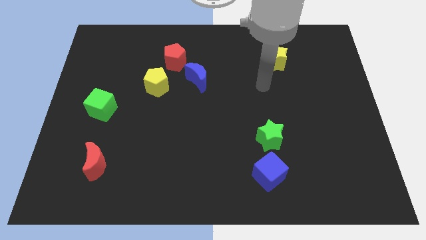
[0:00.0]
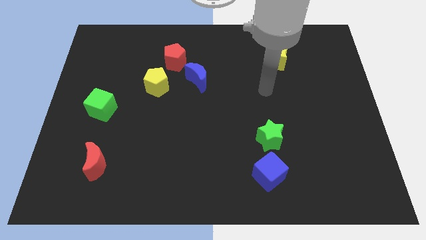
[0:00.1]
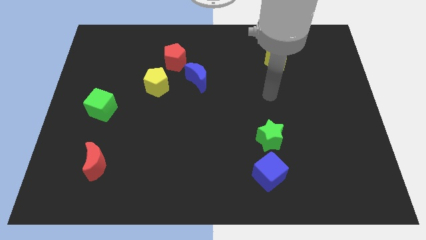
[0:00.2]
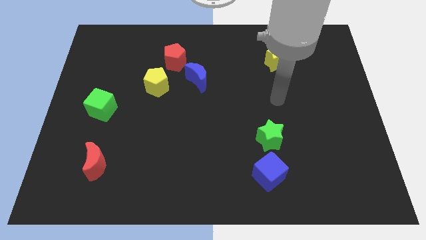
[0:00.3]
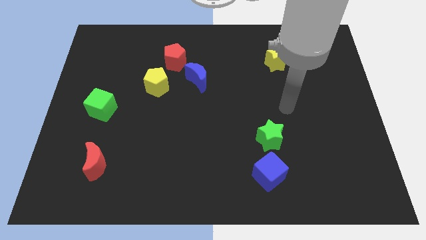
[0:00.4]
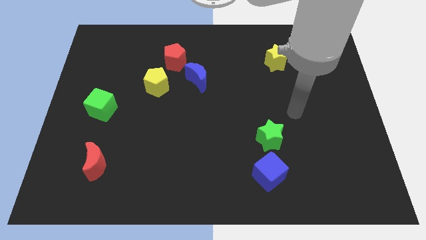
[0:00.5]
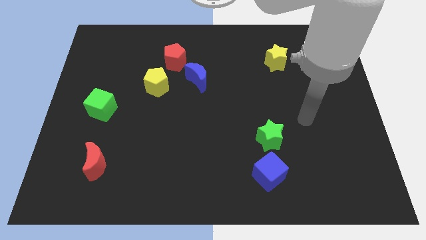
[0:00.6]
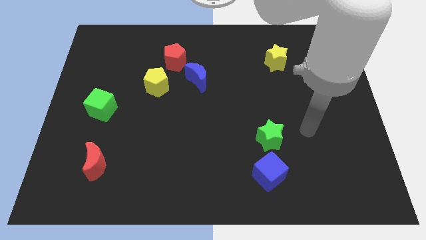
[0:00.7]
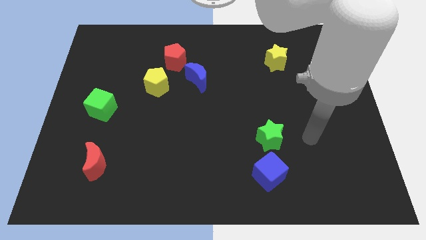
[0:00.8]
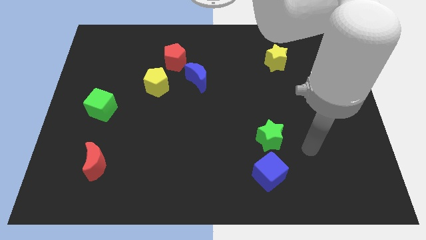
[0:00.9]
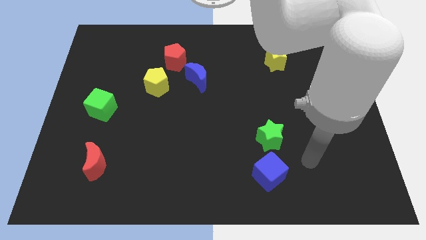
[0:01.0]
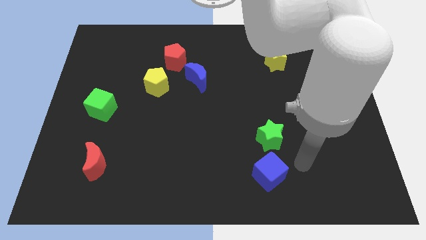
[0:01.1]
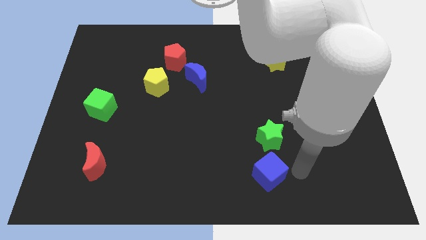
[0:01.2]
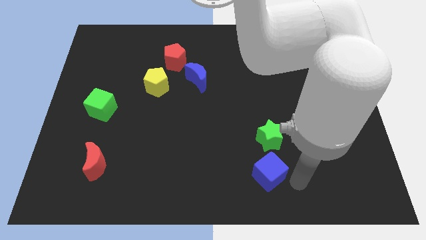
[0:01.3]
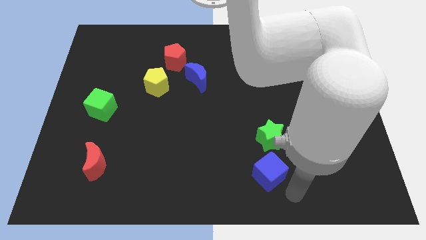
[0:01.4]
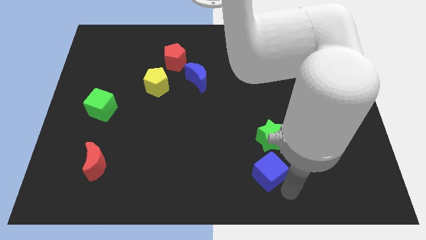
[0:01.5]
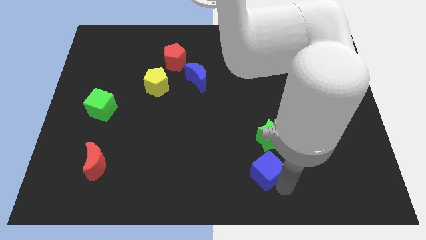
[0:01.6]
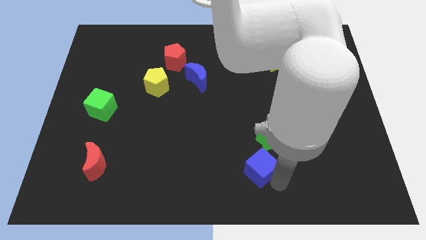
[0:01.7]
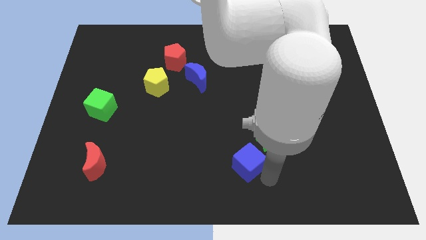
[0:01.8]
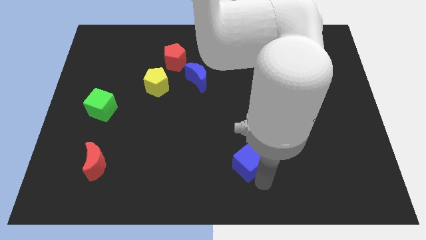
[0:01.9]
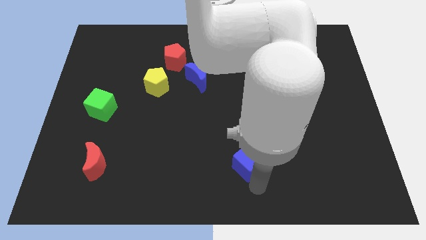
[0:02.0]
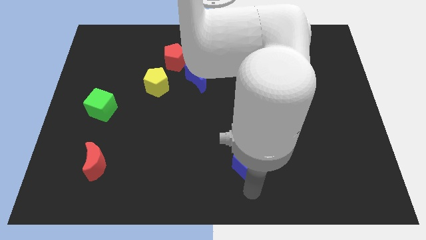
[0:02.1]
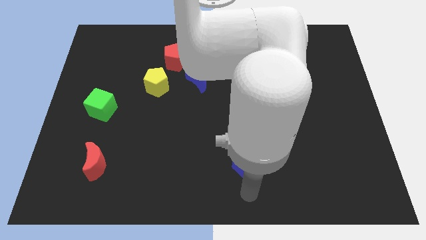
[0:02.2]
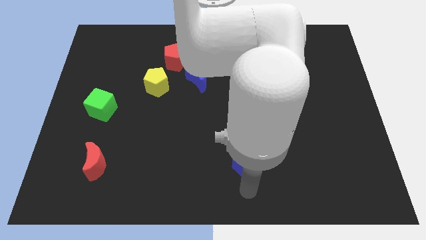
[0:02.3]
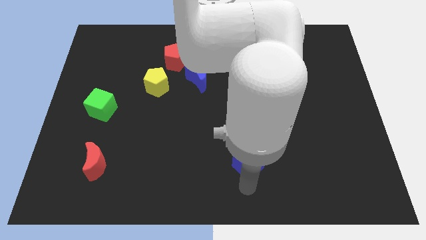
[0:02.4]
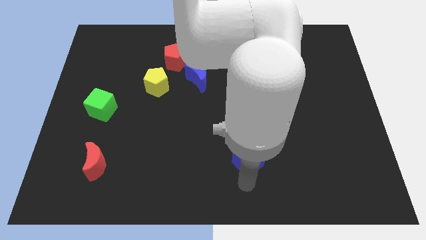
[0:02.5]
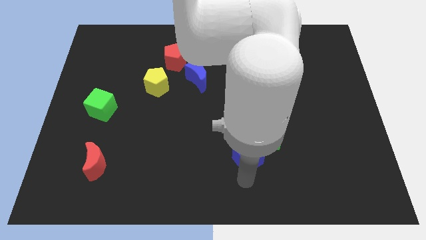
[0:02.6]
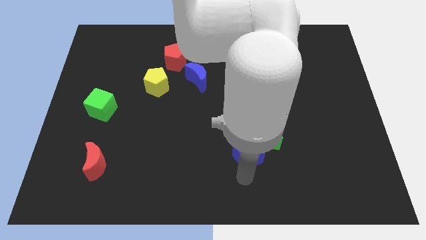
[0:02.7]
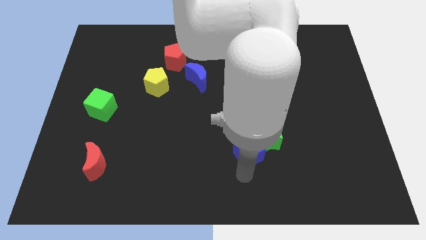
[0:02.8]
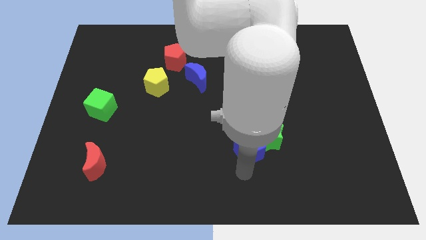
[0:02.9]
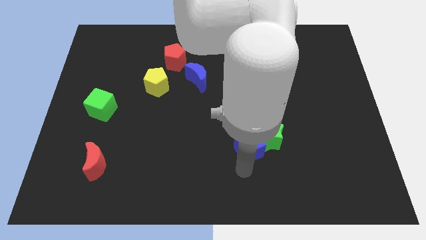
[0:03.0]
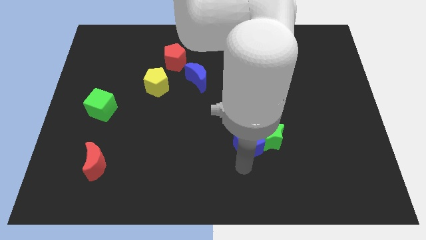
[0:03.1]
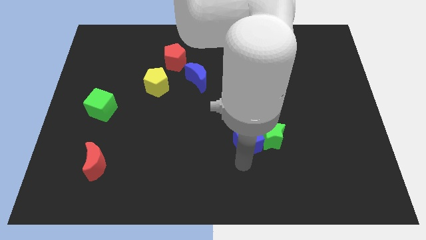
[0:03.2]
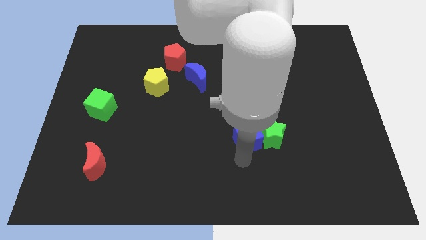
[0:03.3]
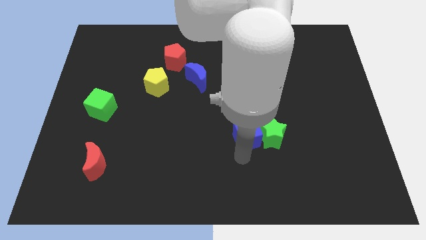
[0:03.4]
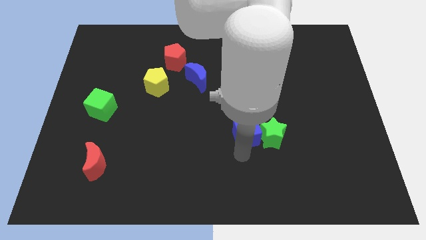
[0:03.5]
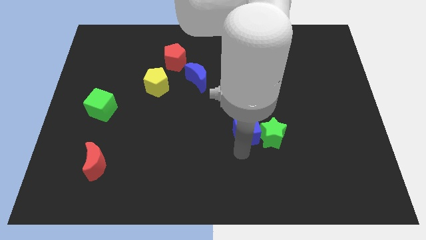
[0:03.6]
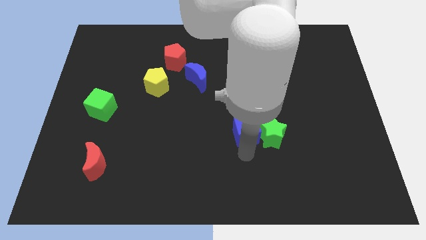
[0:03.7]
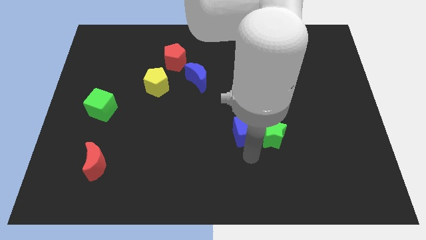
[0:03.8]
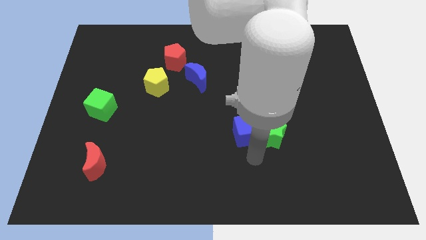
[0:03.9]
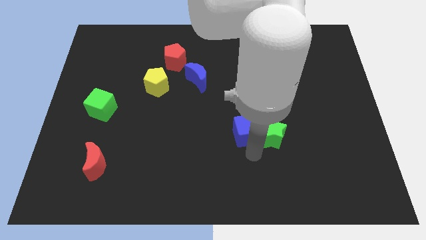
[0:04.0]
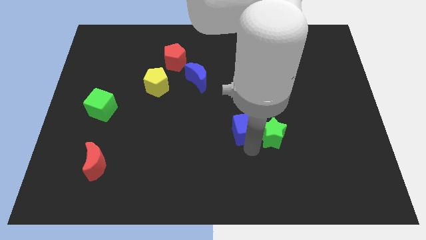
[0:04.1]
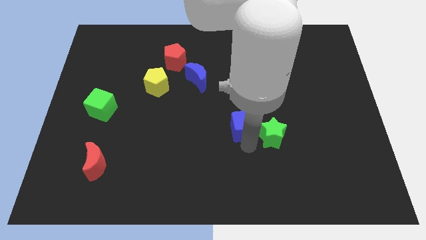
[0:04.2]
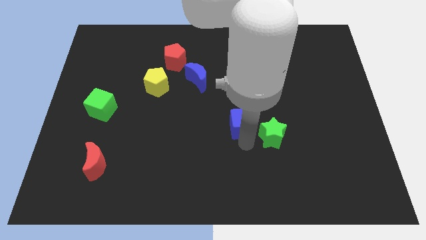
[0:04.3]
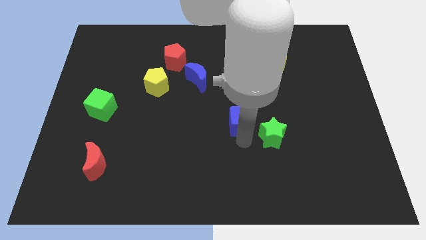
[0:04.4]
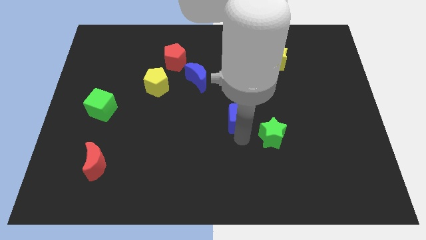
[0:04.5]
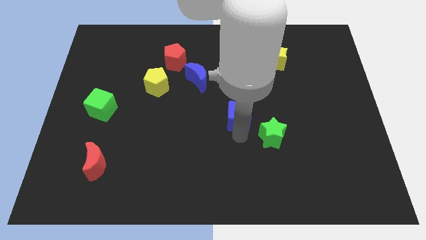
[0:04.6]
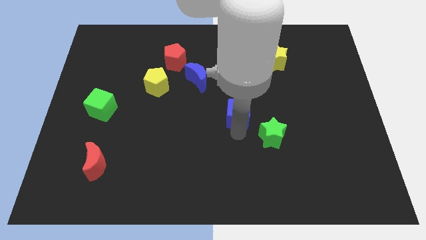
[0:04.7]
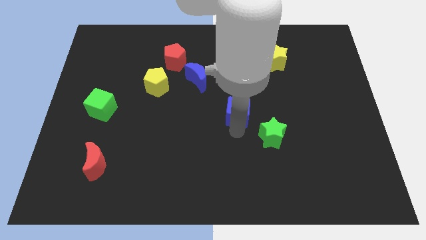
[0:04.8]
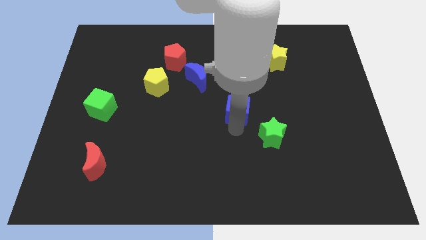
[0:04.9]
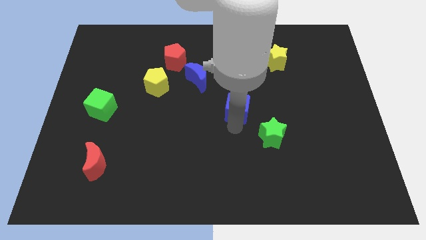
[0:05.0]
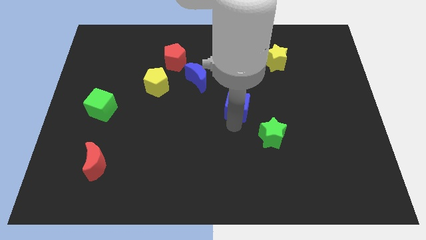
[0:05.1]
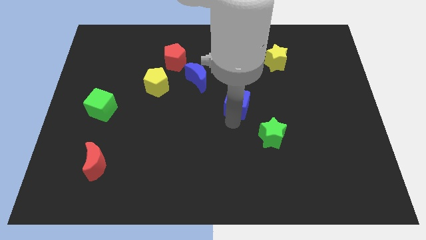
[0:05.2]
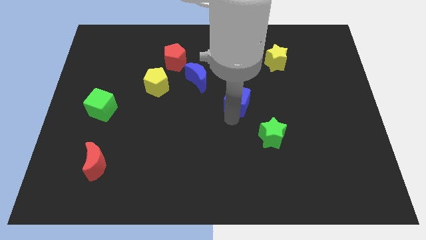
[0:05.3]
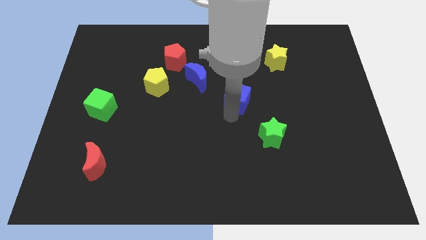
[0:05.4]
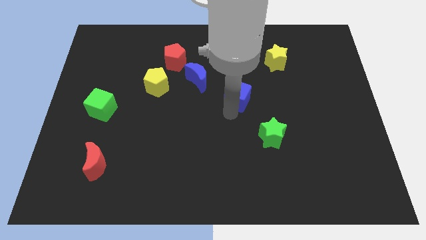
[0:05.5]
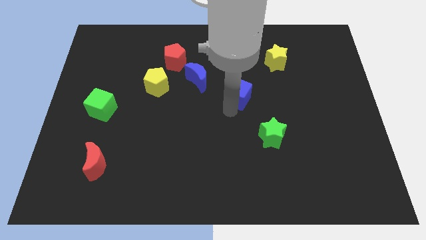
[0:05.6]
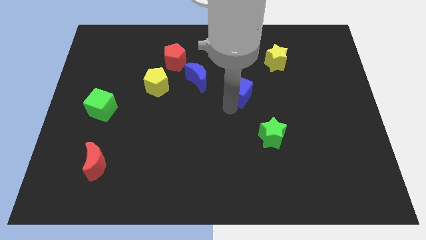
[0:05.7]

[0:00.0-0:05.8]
move the blue cube up

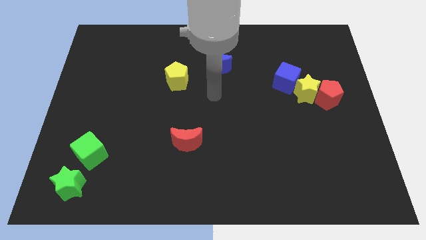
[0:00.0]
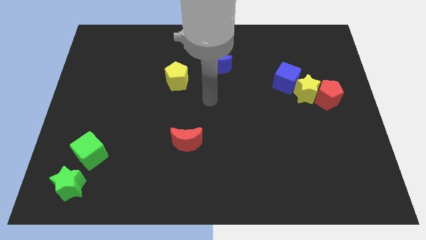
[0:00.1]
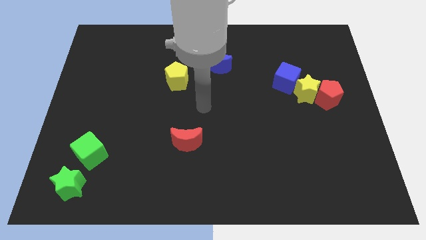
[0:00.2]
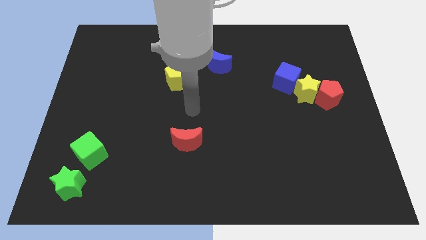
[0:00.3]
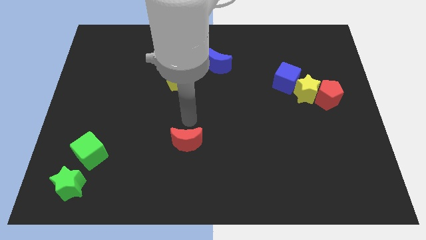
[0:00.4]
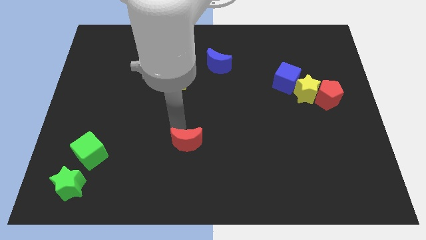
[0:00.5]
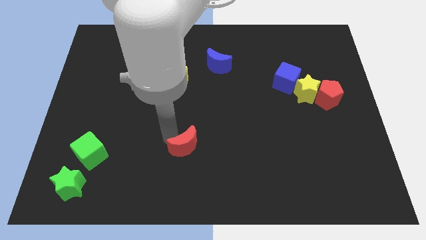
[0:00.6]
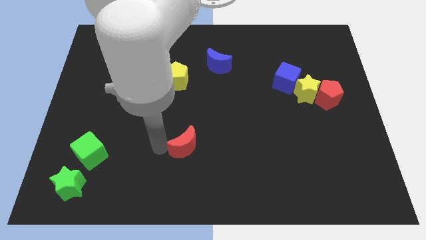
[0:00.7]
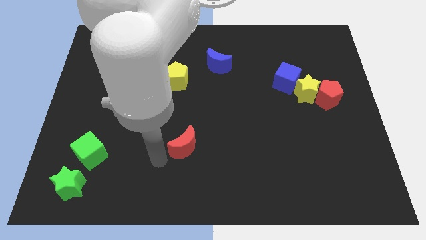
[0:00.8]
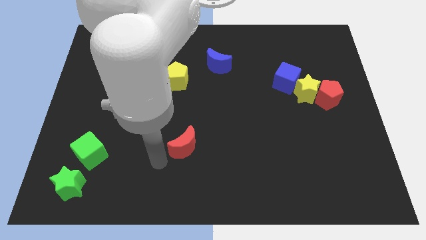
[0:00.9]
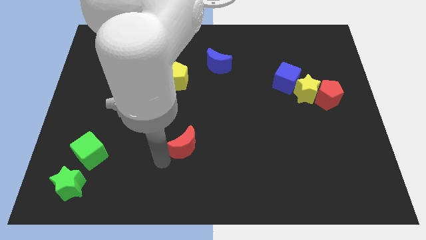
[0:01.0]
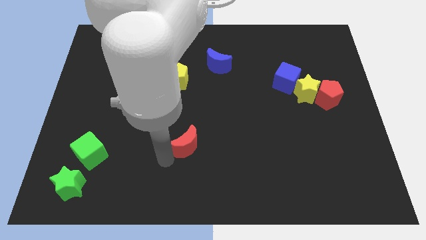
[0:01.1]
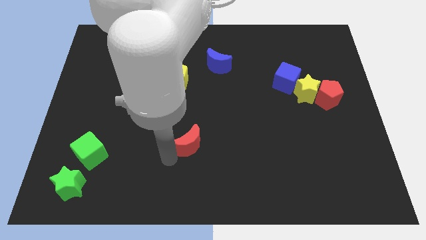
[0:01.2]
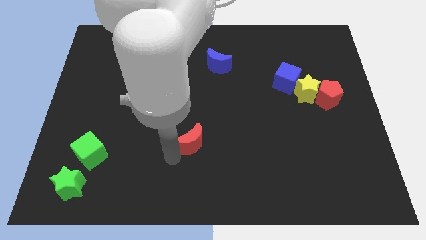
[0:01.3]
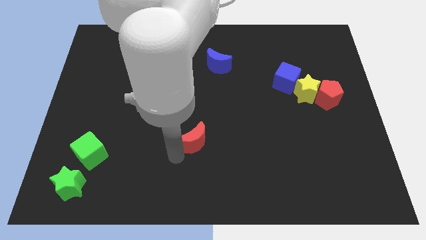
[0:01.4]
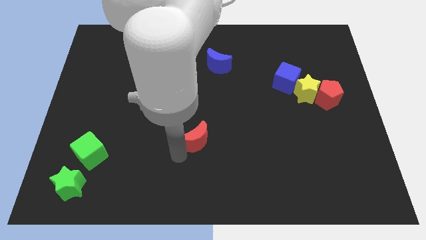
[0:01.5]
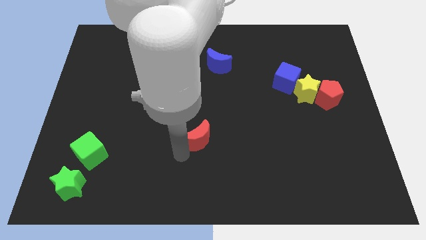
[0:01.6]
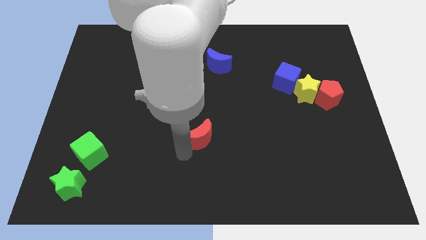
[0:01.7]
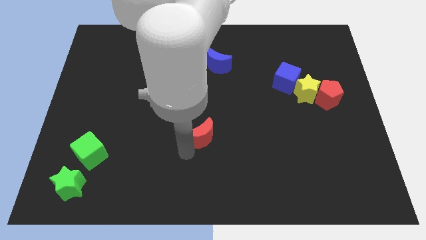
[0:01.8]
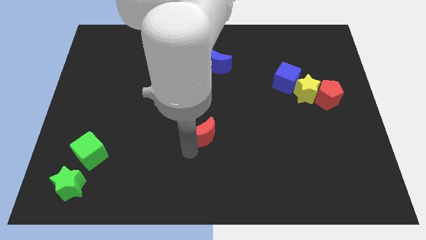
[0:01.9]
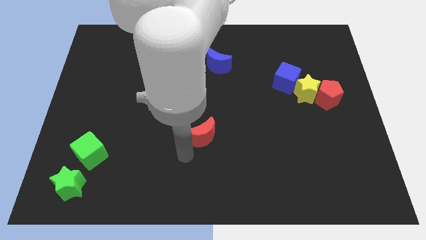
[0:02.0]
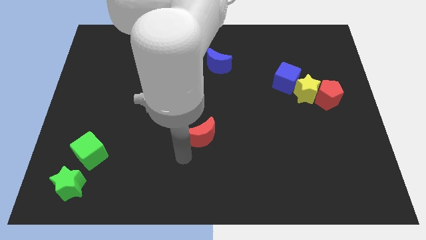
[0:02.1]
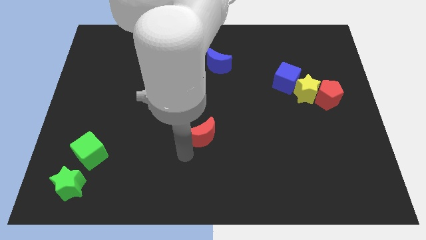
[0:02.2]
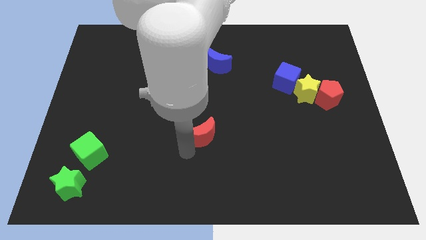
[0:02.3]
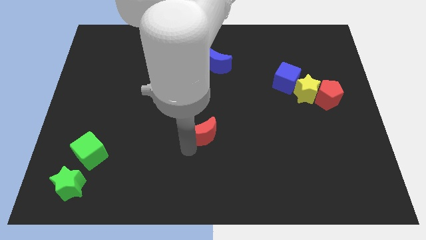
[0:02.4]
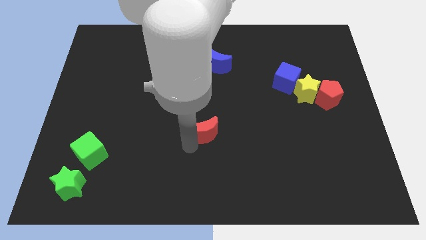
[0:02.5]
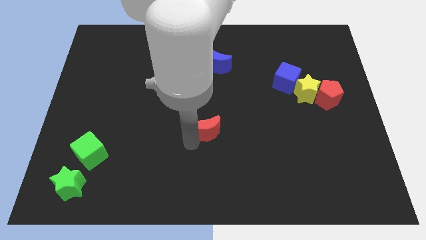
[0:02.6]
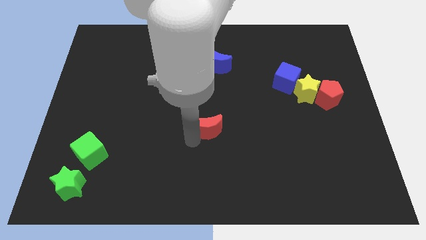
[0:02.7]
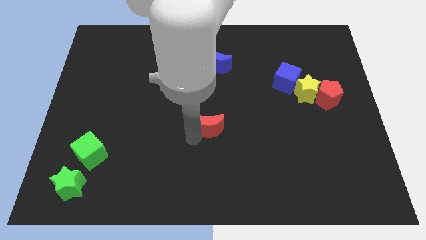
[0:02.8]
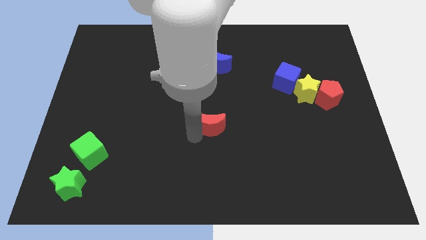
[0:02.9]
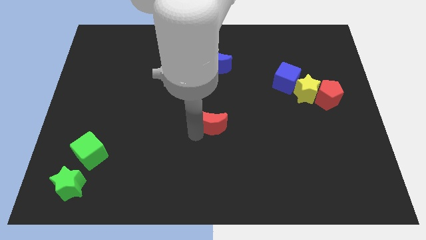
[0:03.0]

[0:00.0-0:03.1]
move the red moon diagonally upwards and to the right somewhat
